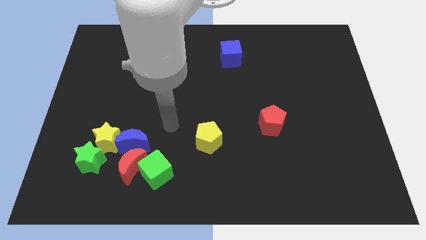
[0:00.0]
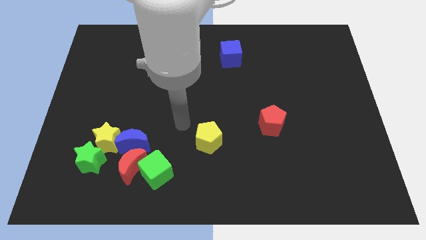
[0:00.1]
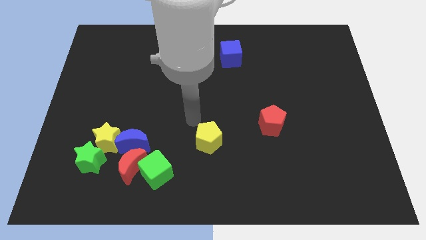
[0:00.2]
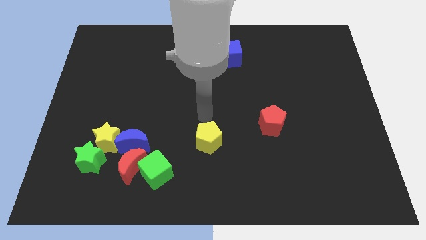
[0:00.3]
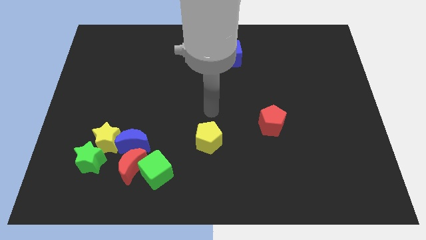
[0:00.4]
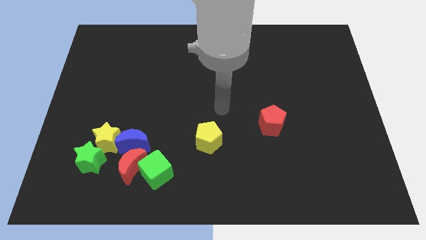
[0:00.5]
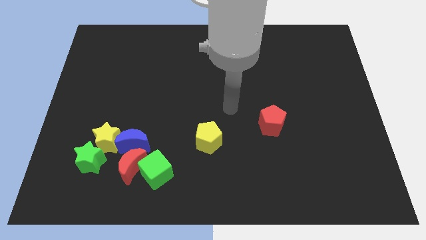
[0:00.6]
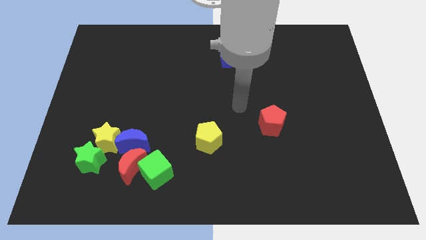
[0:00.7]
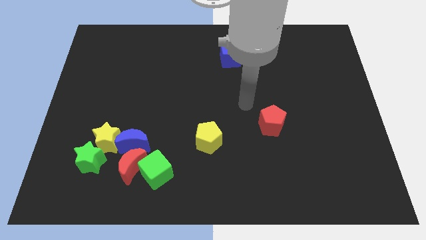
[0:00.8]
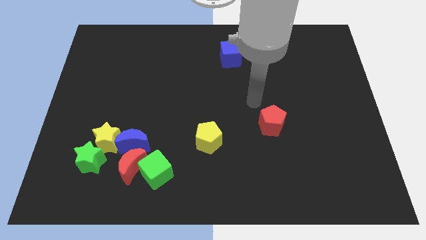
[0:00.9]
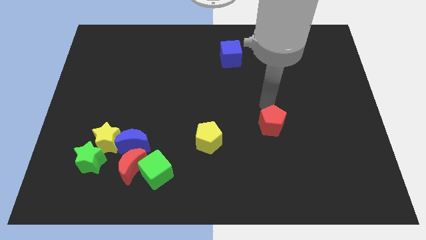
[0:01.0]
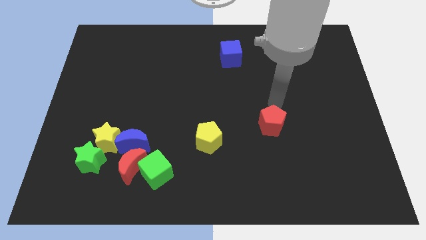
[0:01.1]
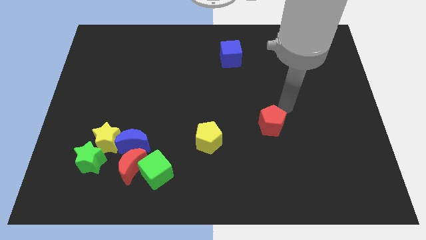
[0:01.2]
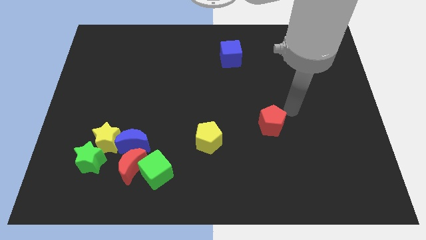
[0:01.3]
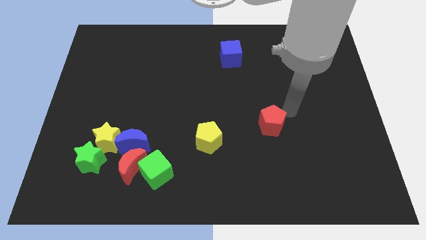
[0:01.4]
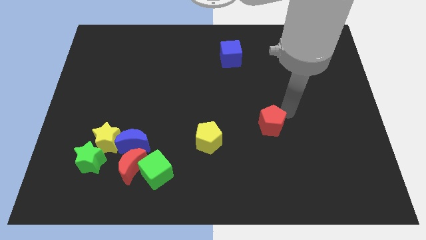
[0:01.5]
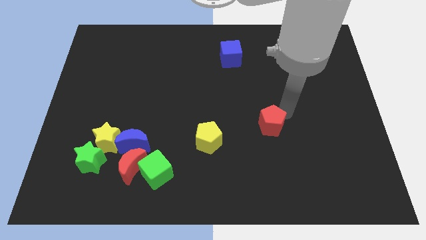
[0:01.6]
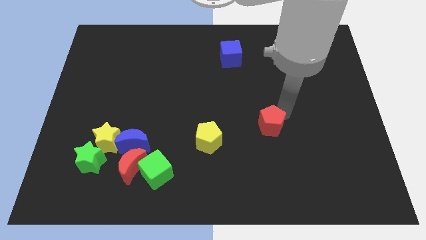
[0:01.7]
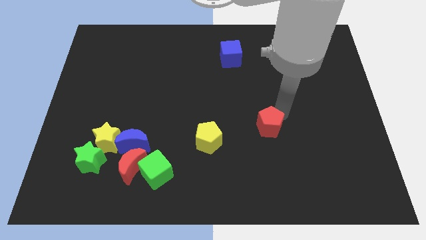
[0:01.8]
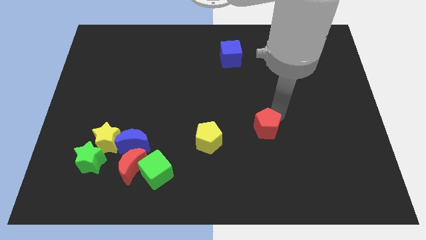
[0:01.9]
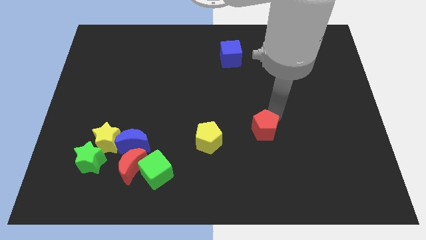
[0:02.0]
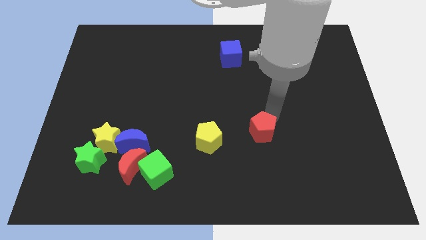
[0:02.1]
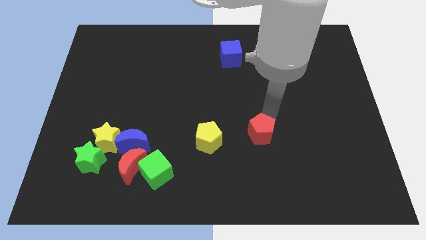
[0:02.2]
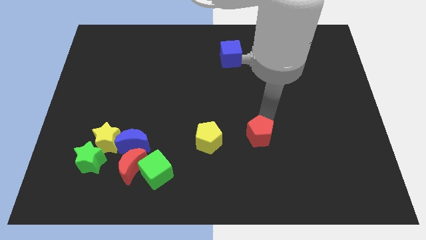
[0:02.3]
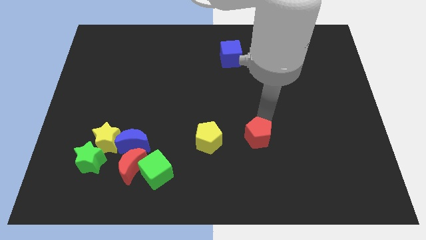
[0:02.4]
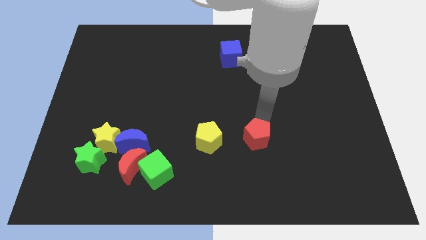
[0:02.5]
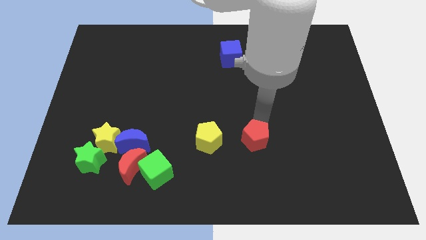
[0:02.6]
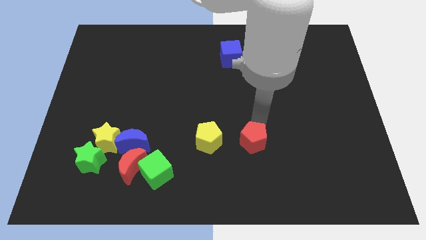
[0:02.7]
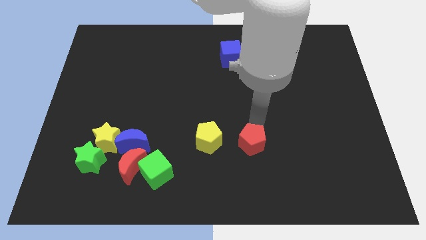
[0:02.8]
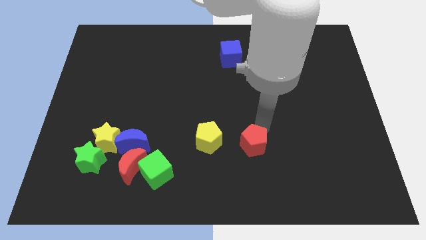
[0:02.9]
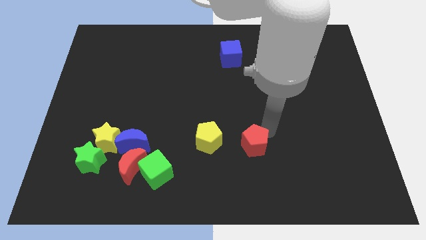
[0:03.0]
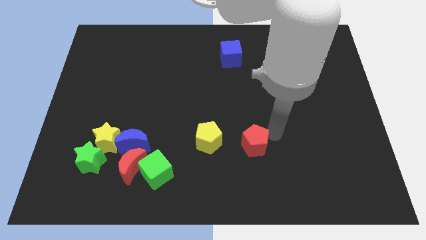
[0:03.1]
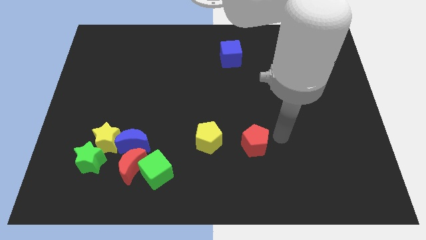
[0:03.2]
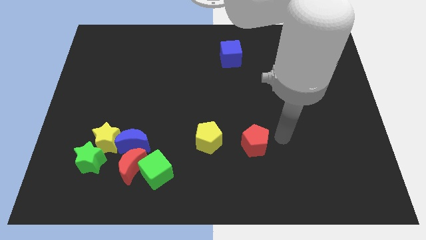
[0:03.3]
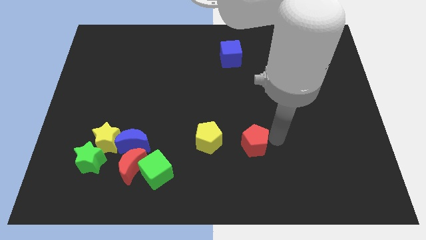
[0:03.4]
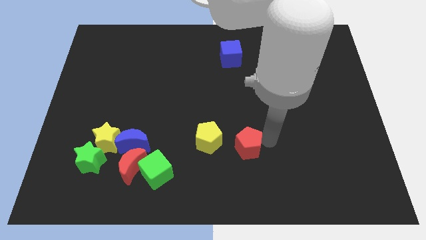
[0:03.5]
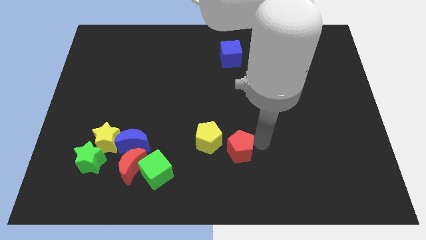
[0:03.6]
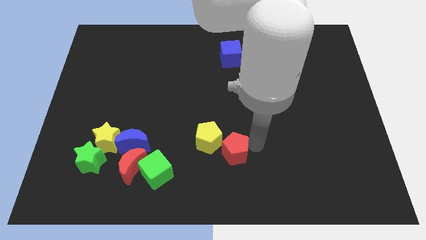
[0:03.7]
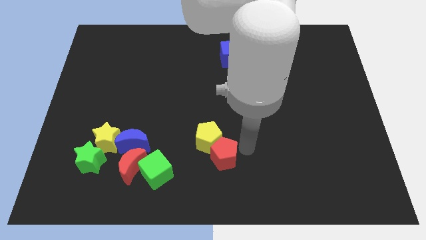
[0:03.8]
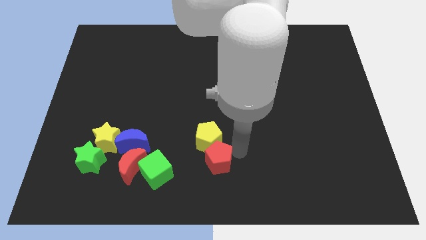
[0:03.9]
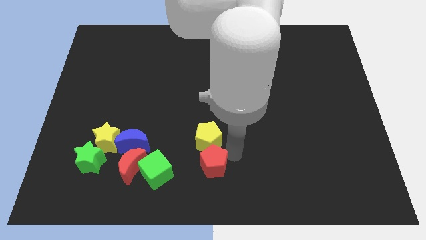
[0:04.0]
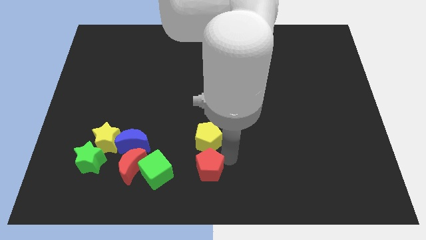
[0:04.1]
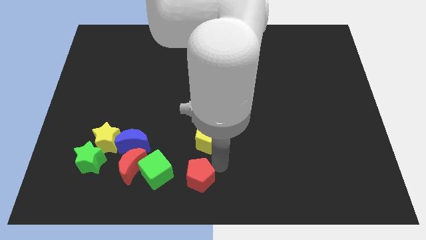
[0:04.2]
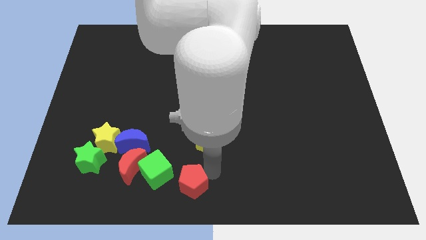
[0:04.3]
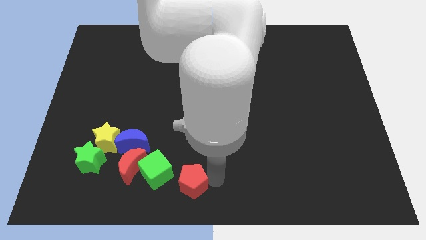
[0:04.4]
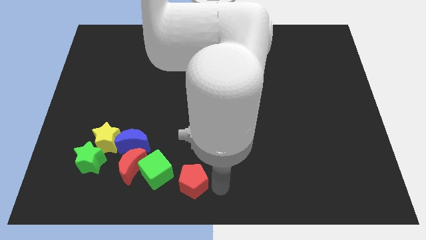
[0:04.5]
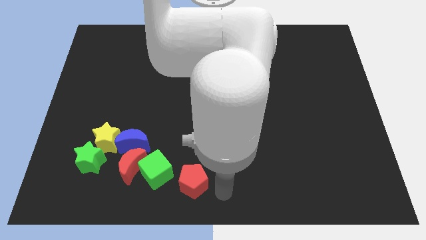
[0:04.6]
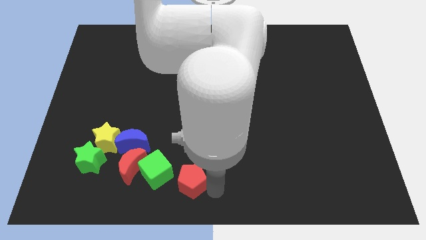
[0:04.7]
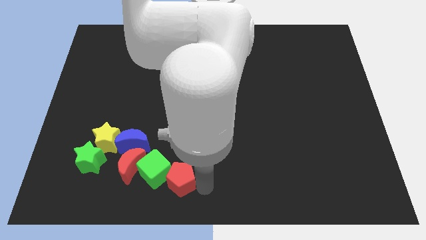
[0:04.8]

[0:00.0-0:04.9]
put the red pentagon close to the green cube

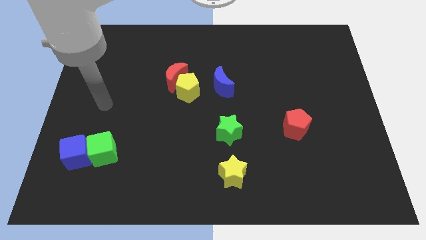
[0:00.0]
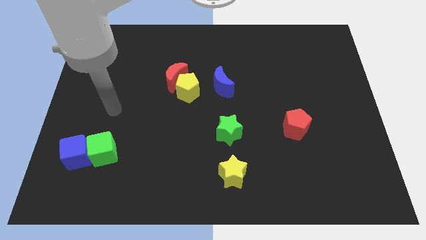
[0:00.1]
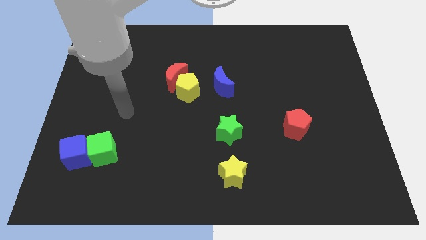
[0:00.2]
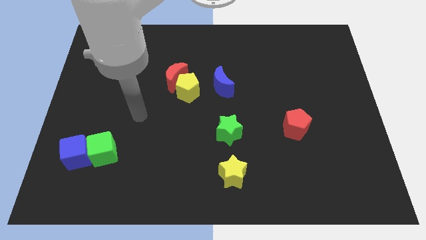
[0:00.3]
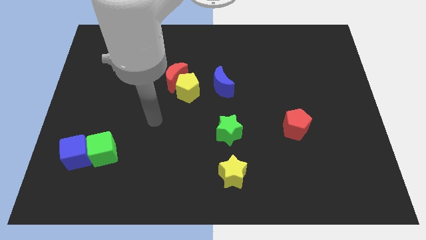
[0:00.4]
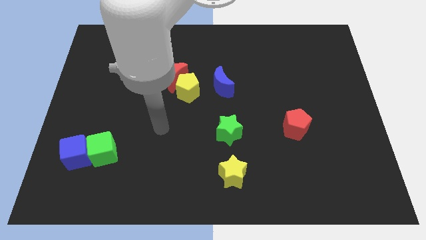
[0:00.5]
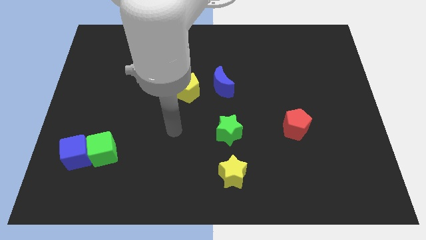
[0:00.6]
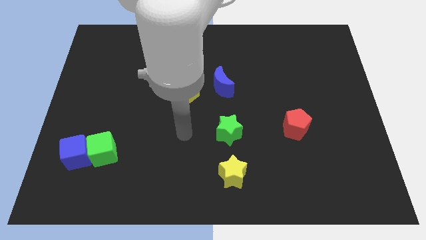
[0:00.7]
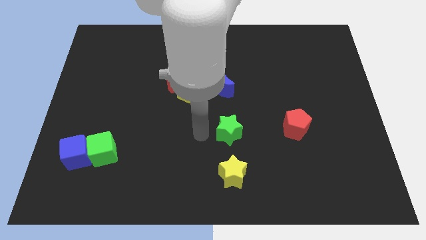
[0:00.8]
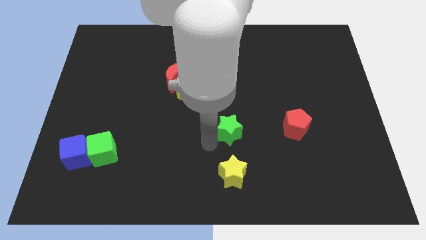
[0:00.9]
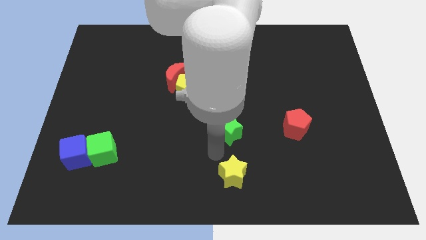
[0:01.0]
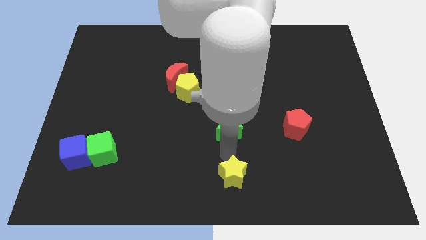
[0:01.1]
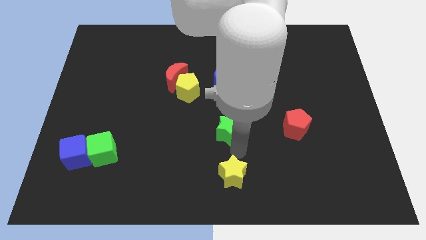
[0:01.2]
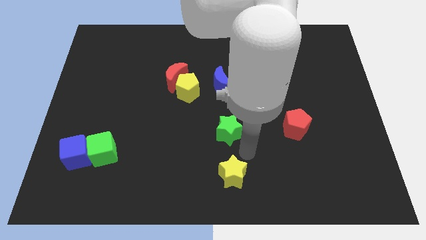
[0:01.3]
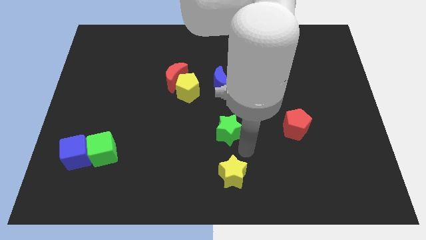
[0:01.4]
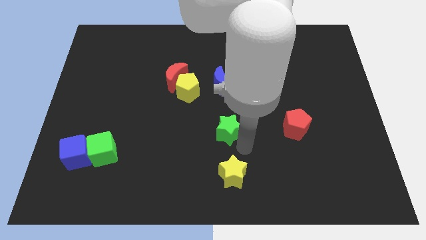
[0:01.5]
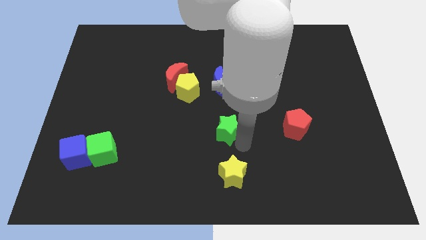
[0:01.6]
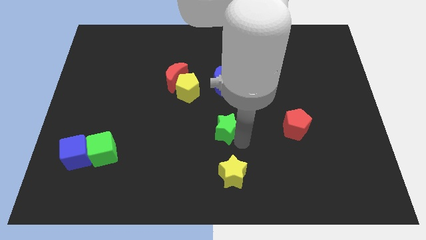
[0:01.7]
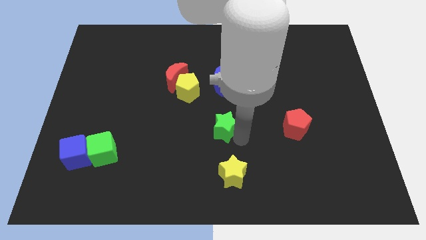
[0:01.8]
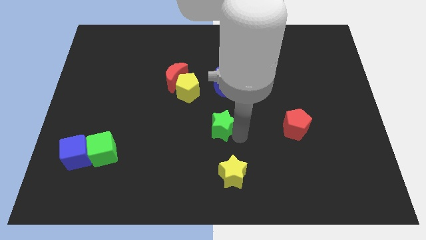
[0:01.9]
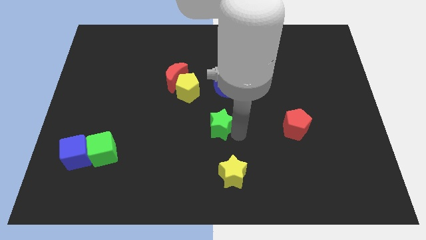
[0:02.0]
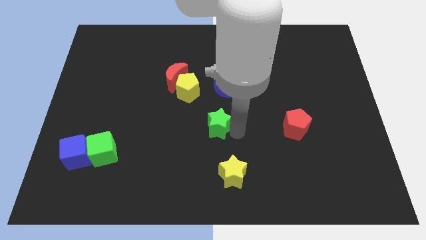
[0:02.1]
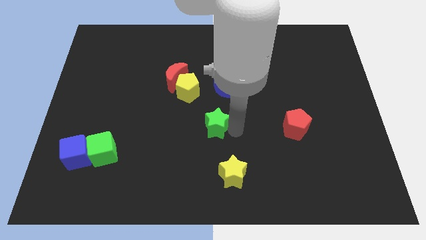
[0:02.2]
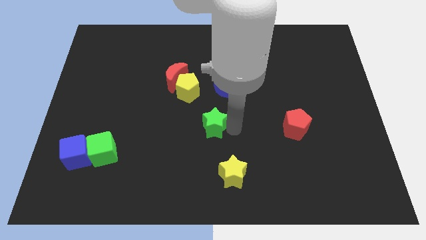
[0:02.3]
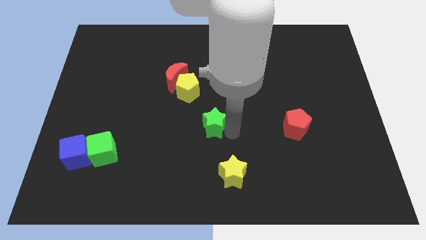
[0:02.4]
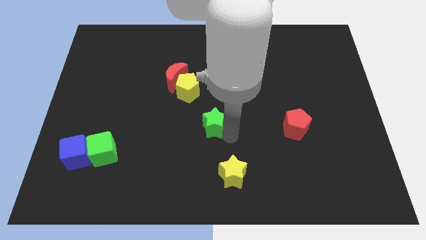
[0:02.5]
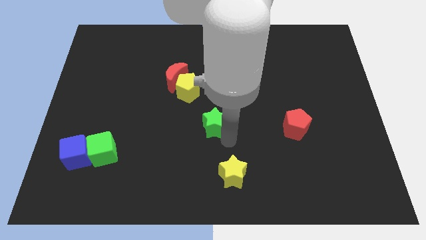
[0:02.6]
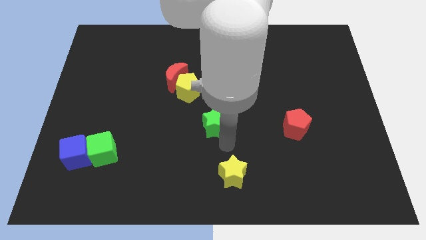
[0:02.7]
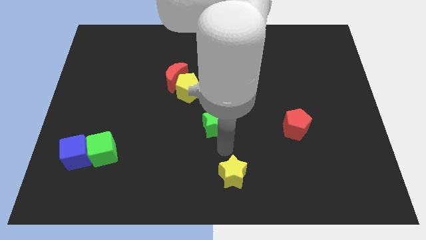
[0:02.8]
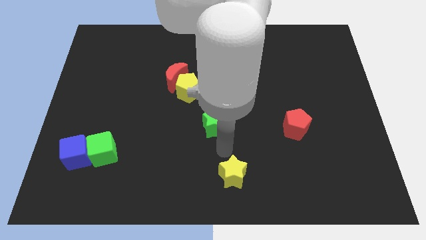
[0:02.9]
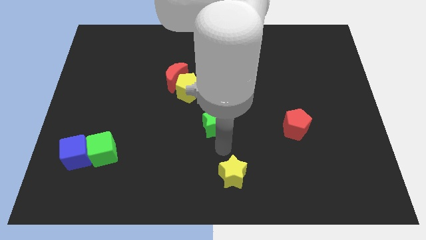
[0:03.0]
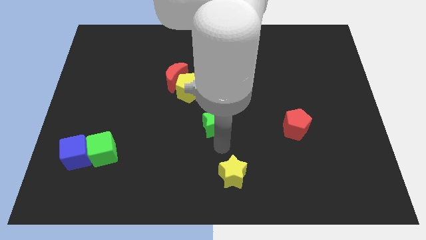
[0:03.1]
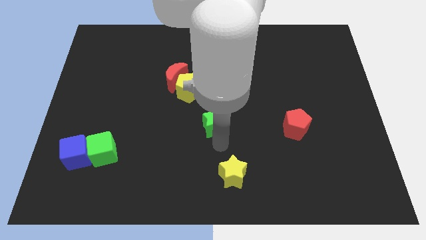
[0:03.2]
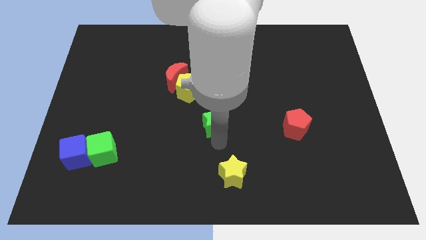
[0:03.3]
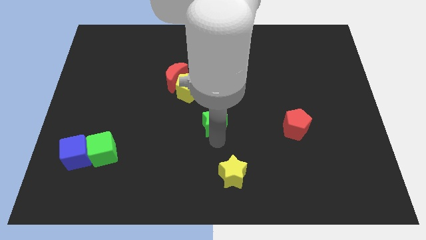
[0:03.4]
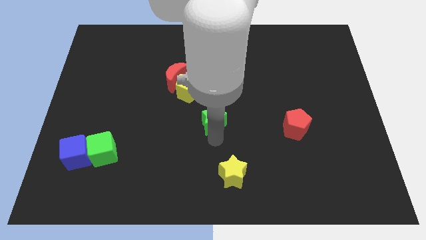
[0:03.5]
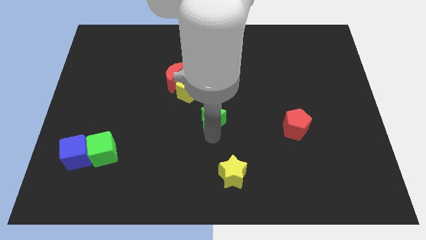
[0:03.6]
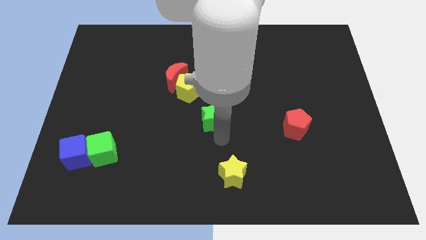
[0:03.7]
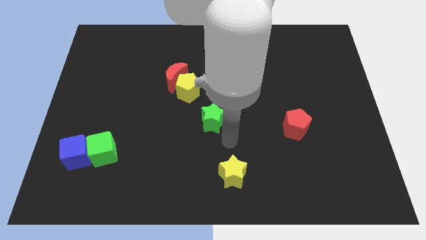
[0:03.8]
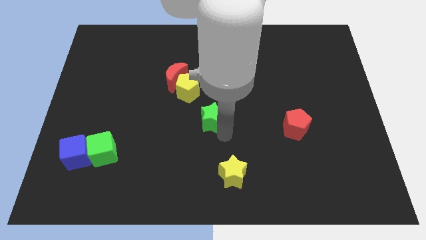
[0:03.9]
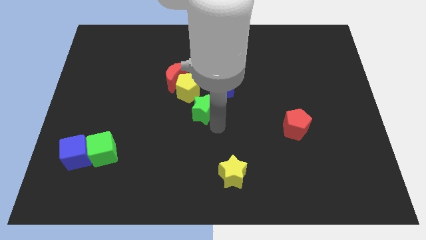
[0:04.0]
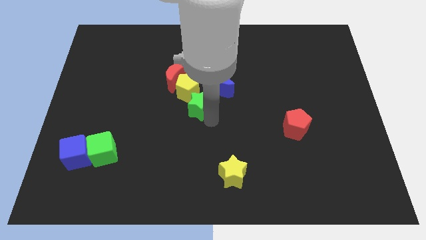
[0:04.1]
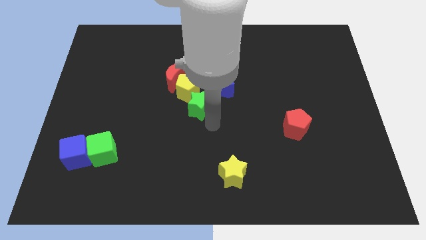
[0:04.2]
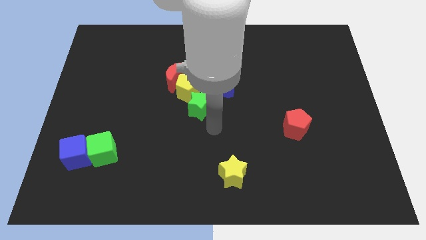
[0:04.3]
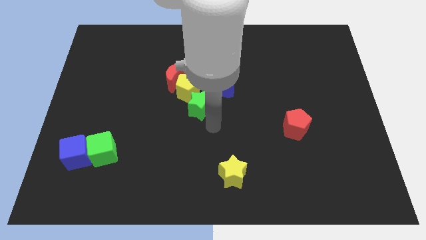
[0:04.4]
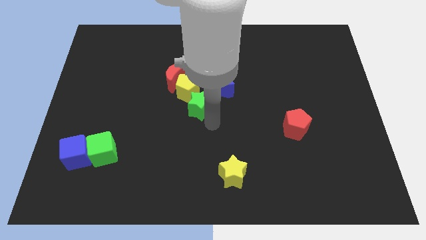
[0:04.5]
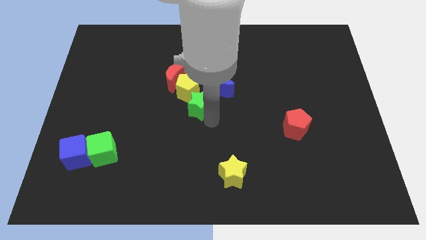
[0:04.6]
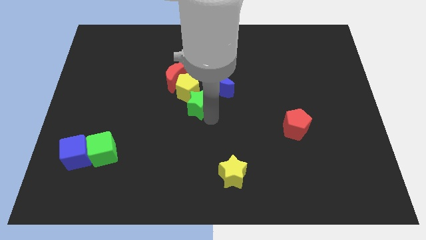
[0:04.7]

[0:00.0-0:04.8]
slide the green star close to the yellow pentagon
